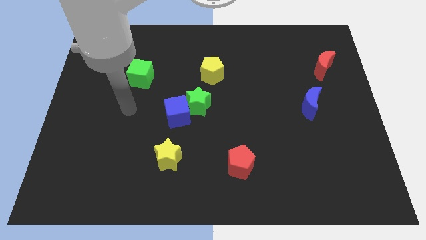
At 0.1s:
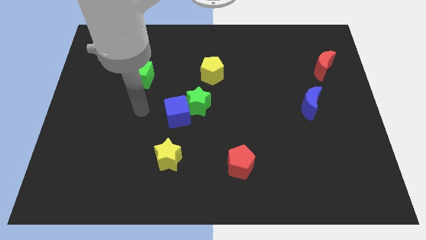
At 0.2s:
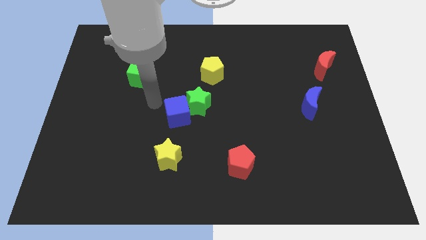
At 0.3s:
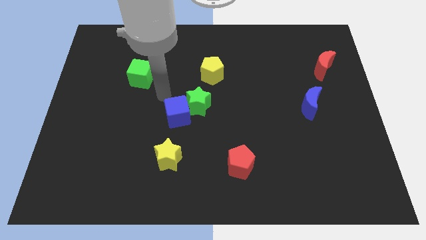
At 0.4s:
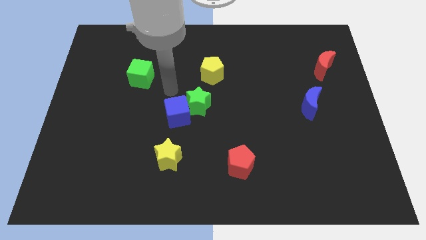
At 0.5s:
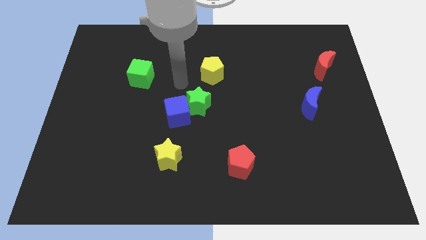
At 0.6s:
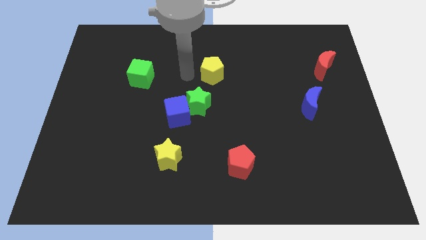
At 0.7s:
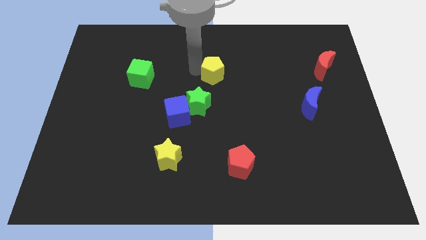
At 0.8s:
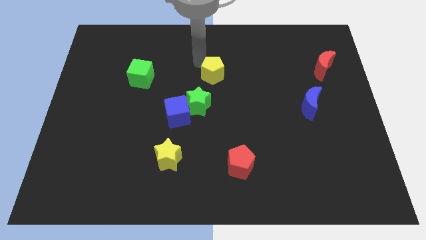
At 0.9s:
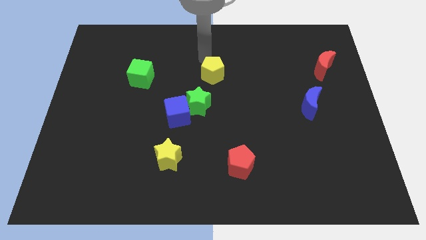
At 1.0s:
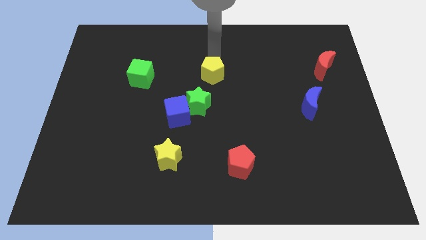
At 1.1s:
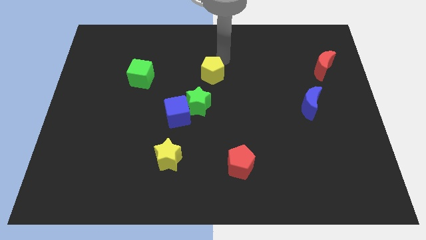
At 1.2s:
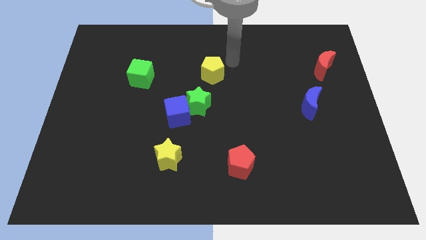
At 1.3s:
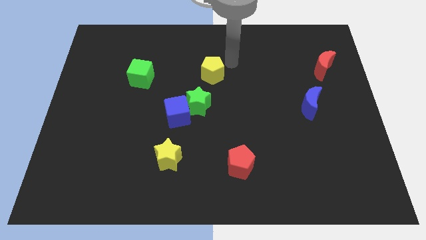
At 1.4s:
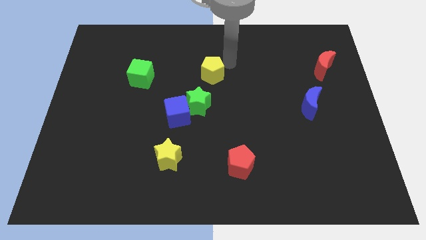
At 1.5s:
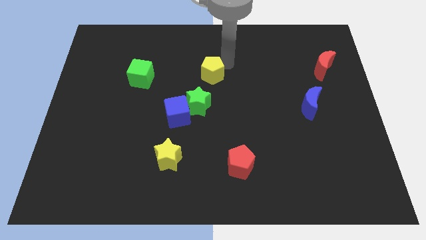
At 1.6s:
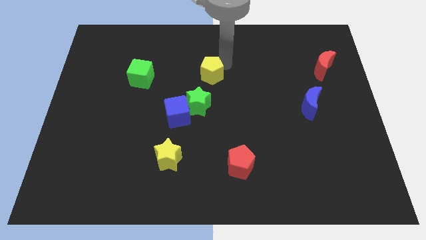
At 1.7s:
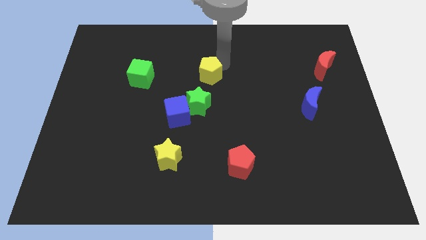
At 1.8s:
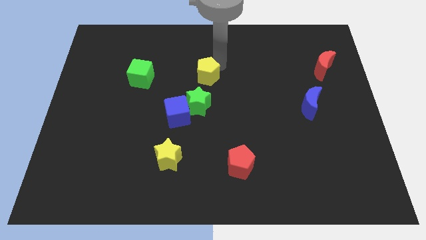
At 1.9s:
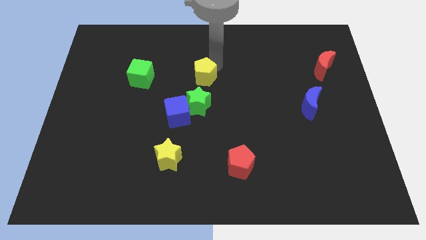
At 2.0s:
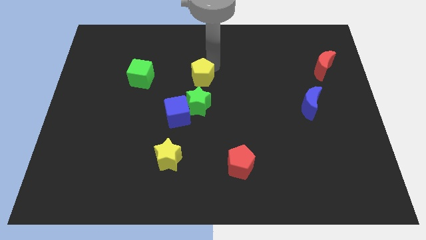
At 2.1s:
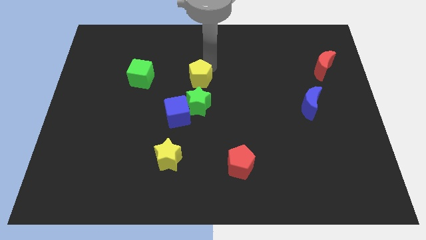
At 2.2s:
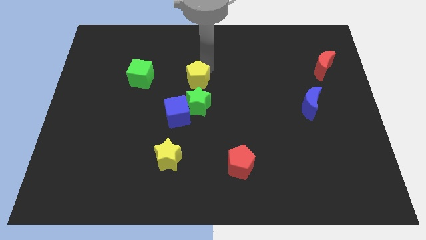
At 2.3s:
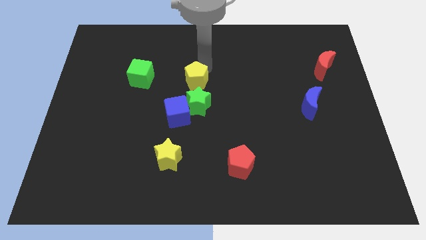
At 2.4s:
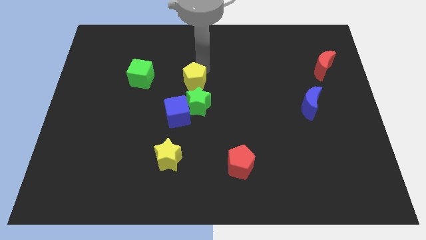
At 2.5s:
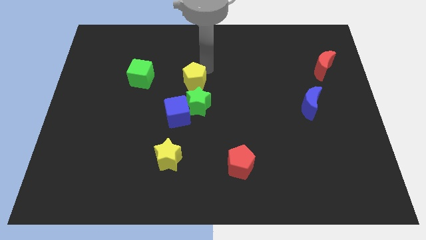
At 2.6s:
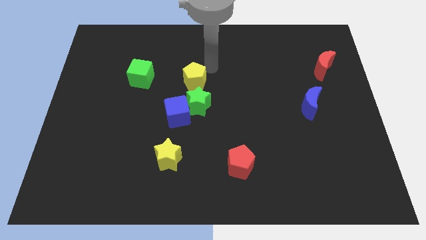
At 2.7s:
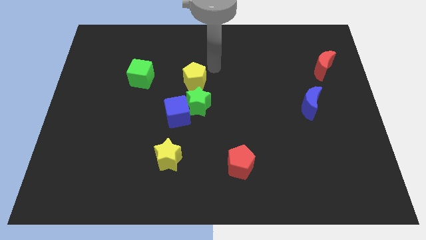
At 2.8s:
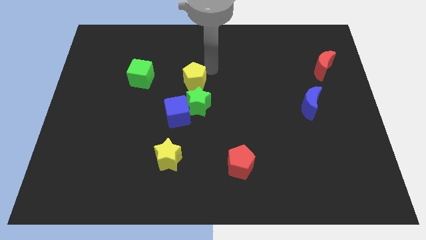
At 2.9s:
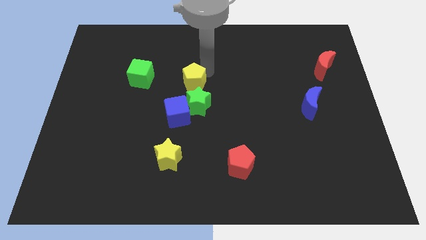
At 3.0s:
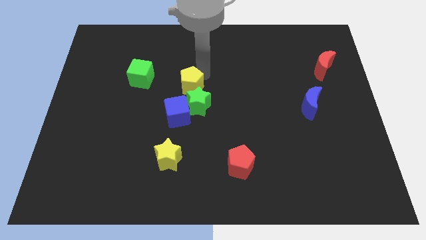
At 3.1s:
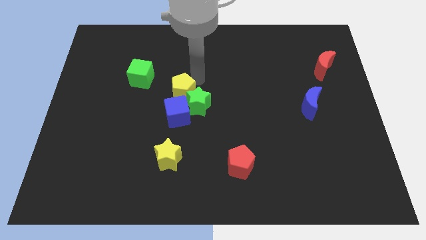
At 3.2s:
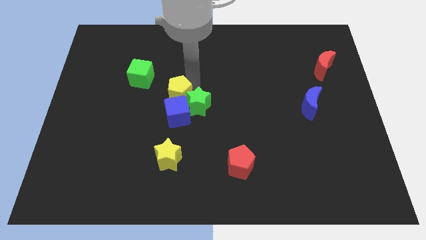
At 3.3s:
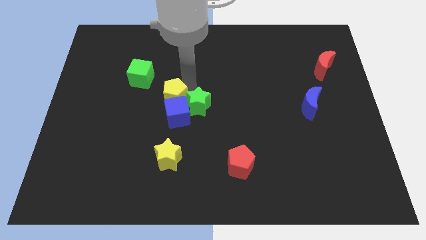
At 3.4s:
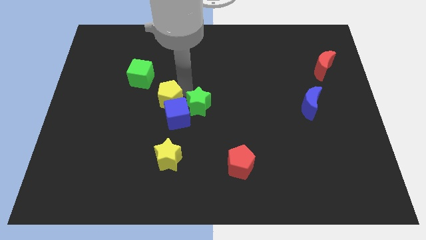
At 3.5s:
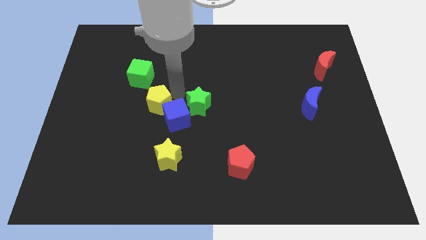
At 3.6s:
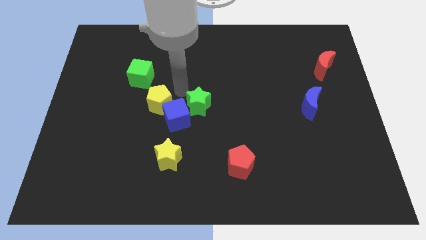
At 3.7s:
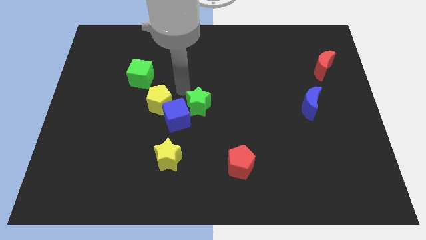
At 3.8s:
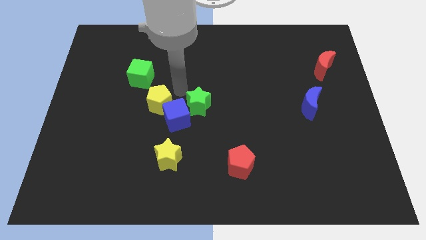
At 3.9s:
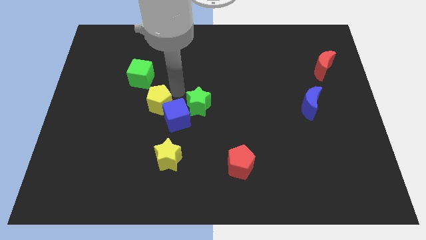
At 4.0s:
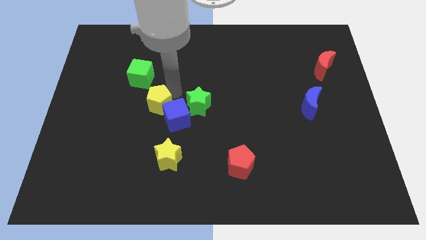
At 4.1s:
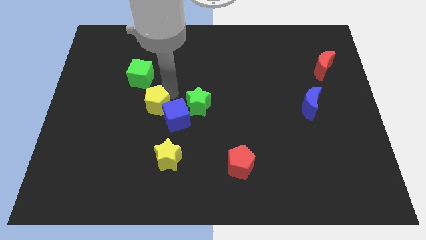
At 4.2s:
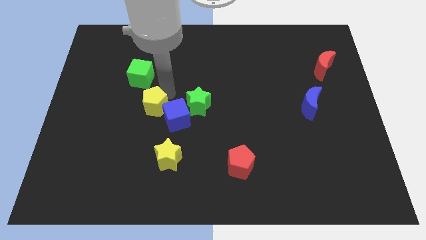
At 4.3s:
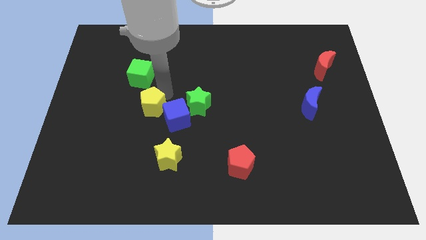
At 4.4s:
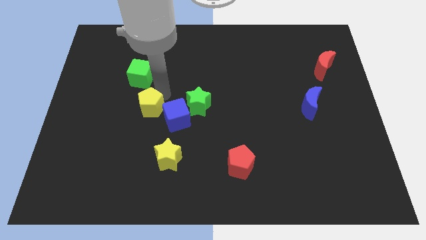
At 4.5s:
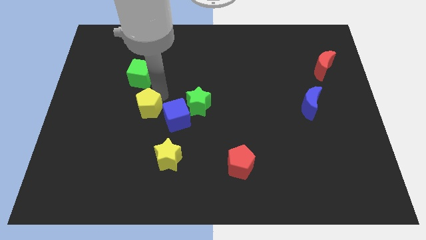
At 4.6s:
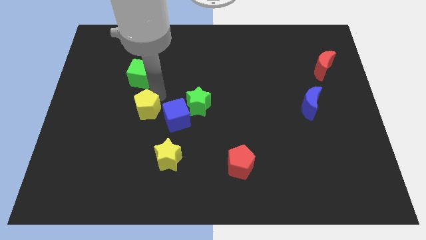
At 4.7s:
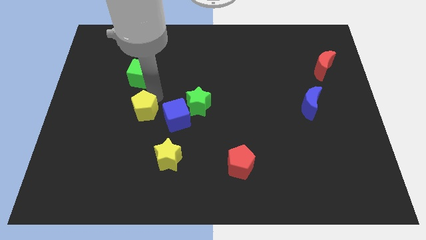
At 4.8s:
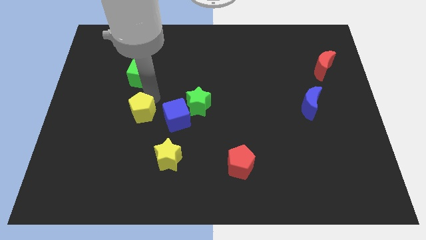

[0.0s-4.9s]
slide the yellow pentagon diagonally downwards and to the left

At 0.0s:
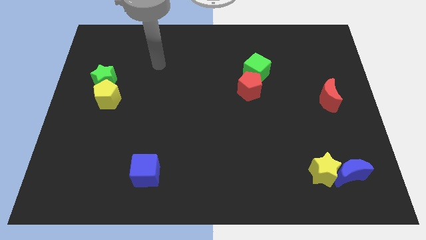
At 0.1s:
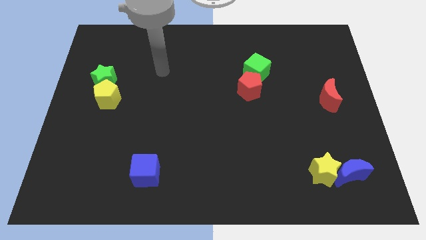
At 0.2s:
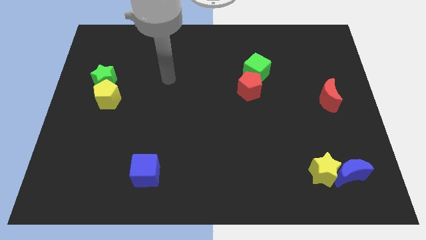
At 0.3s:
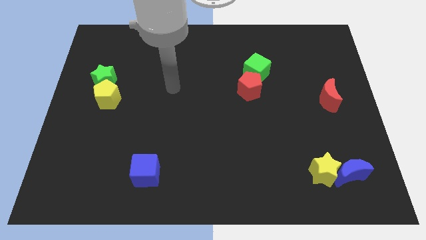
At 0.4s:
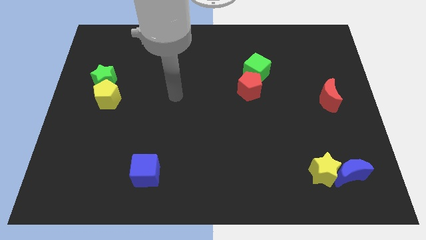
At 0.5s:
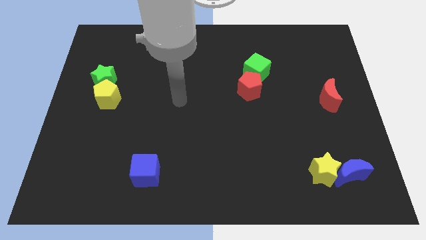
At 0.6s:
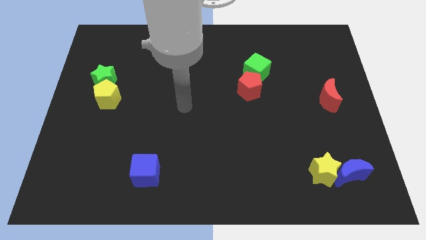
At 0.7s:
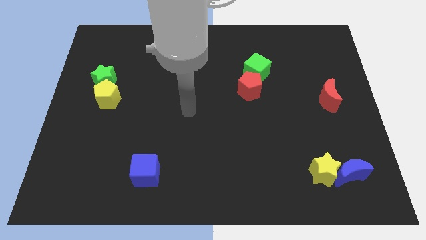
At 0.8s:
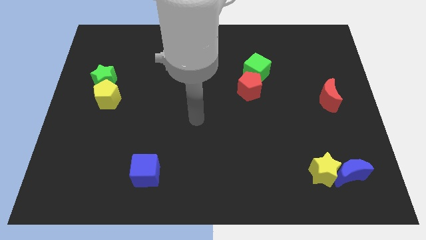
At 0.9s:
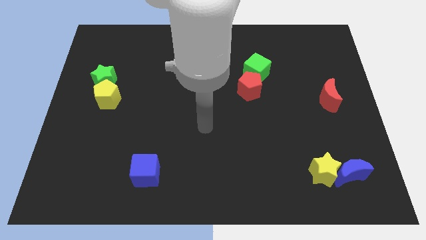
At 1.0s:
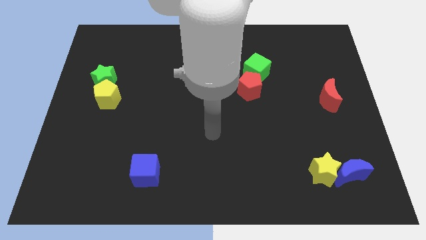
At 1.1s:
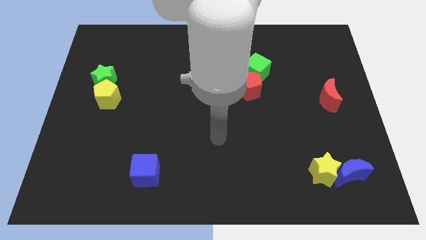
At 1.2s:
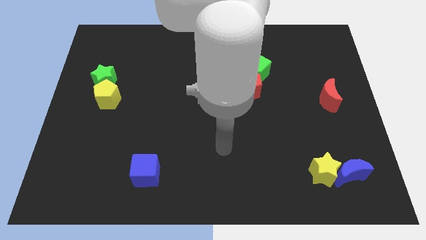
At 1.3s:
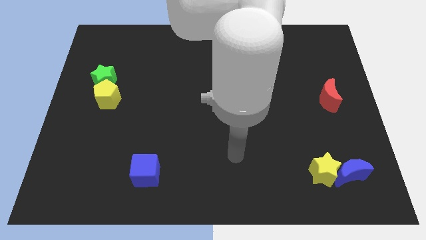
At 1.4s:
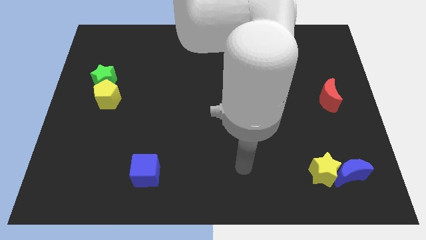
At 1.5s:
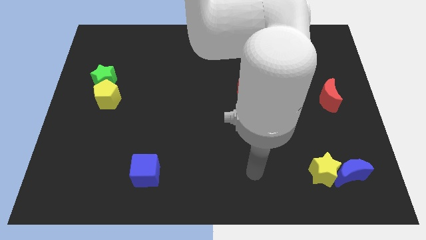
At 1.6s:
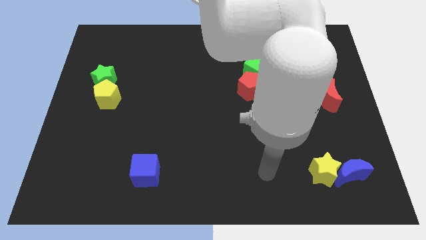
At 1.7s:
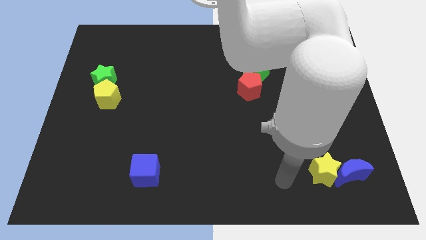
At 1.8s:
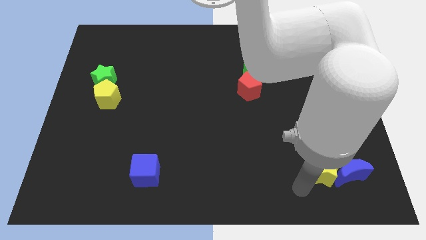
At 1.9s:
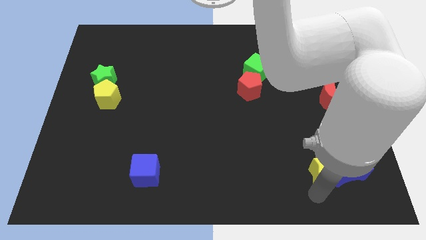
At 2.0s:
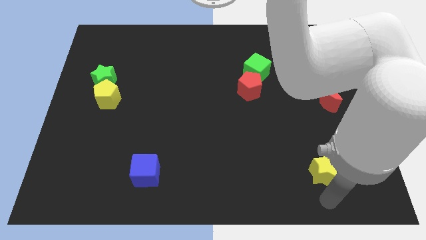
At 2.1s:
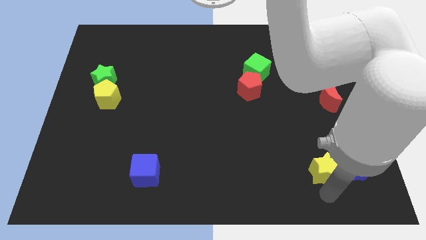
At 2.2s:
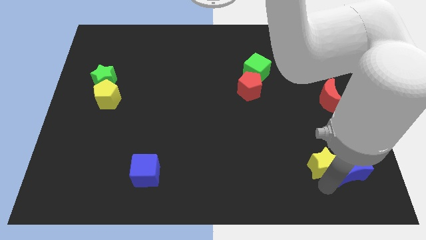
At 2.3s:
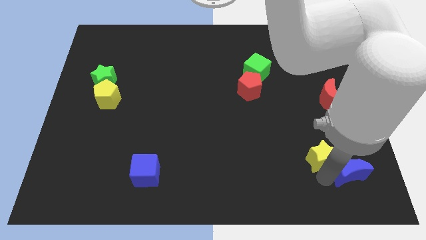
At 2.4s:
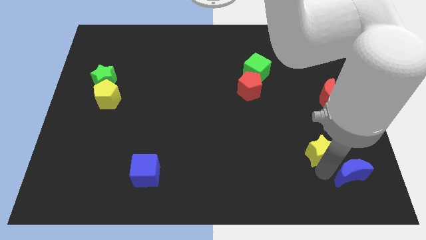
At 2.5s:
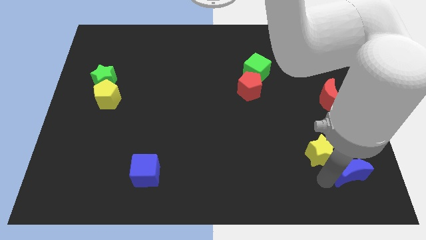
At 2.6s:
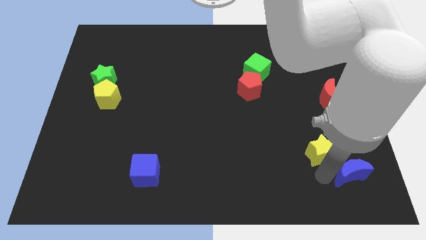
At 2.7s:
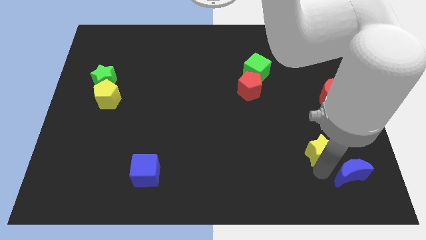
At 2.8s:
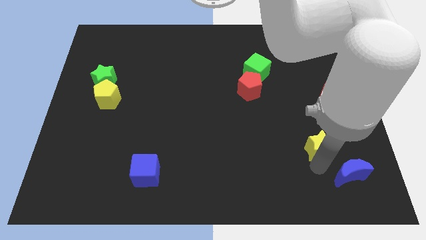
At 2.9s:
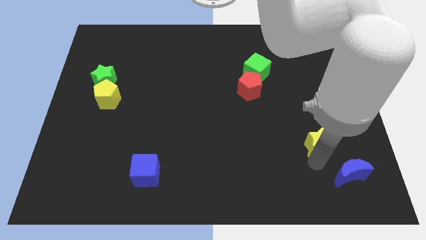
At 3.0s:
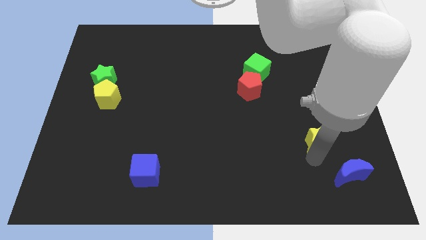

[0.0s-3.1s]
slightly slide the yellow star up
